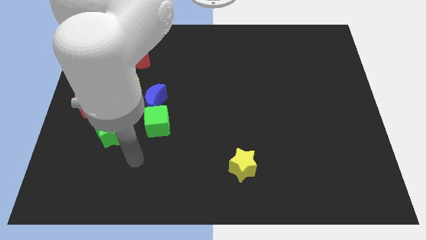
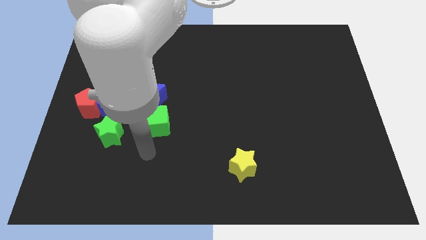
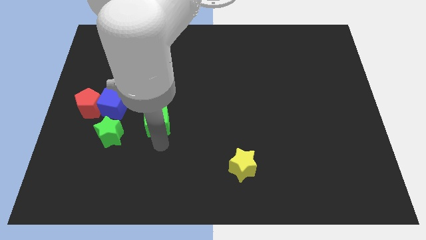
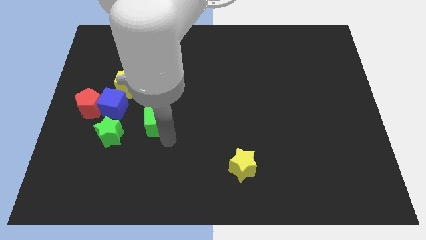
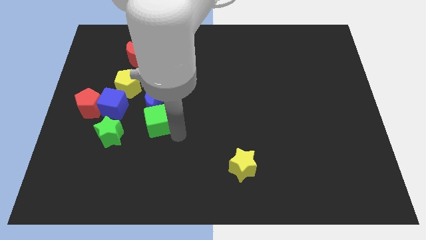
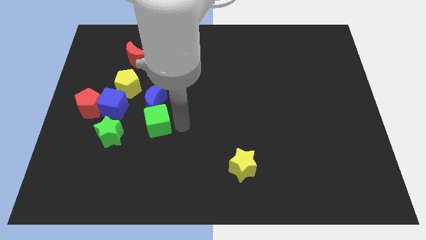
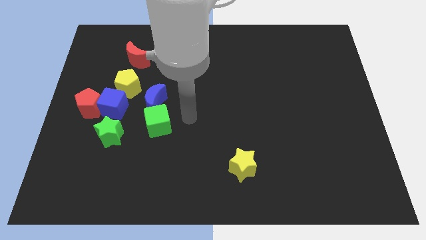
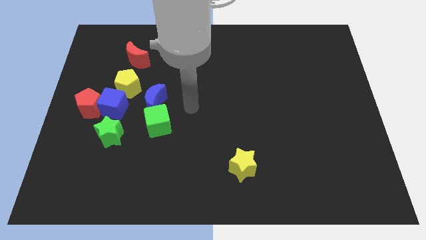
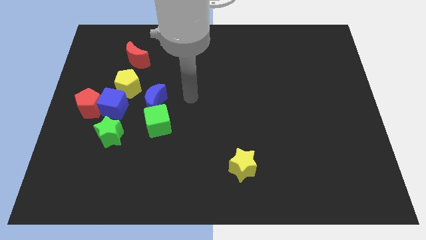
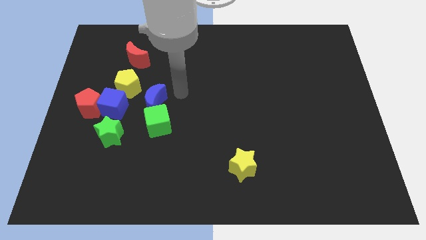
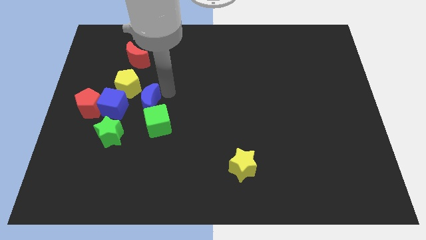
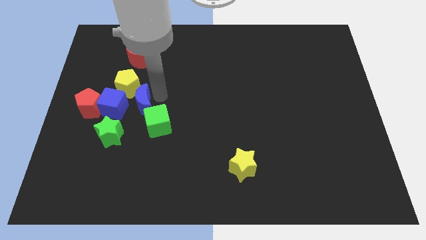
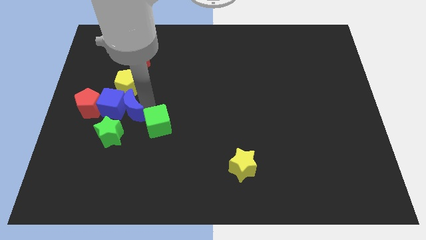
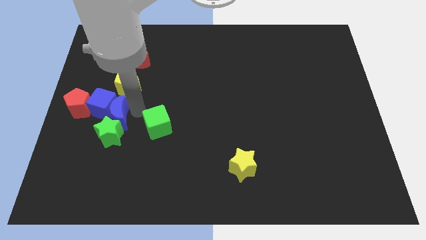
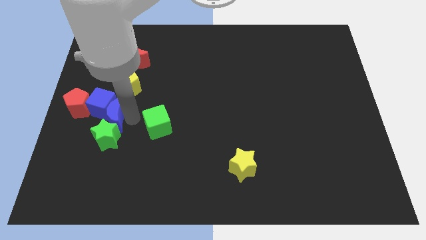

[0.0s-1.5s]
move the green cube away from the blue moon

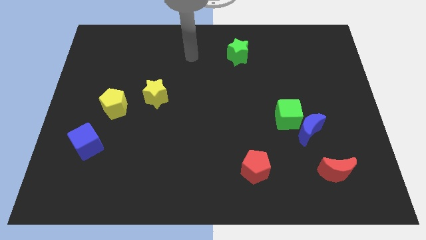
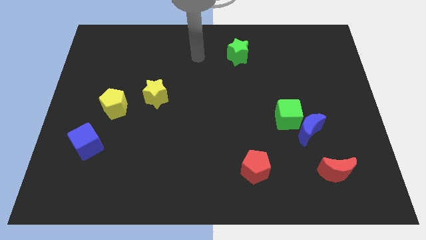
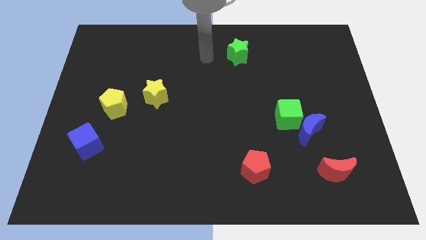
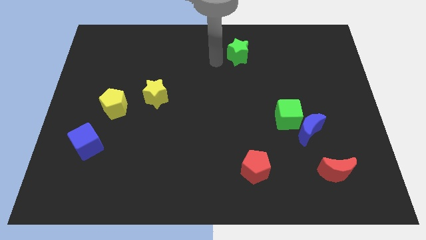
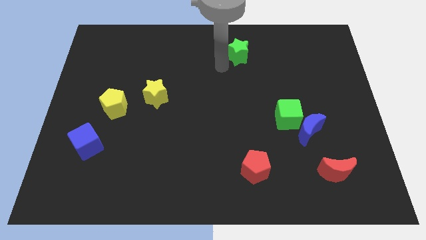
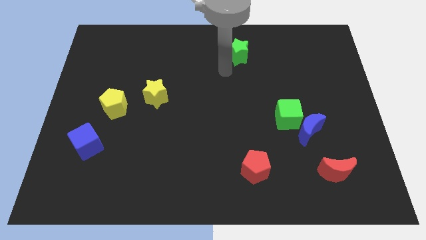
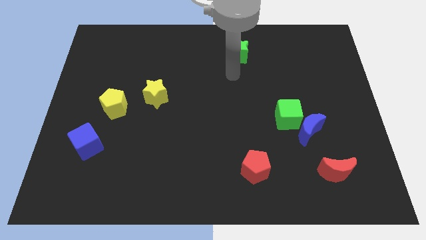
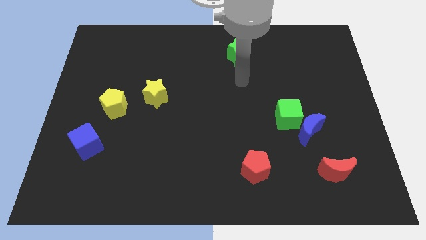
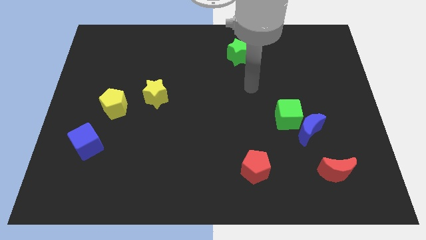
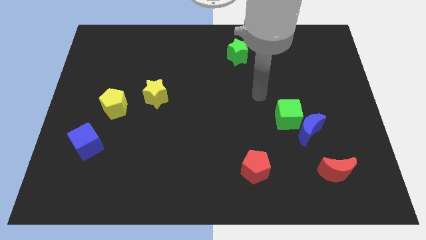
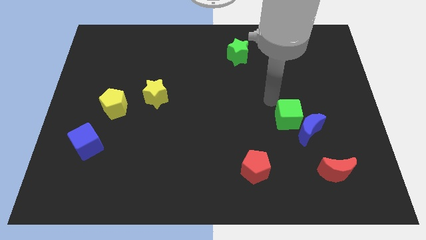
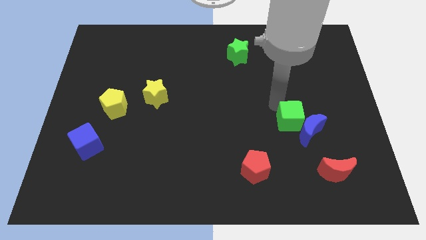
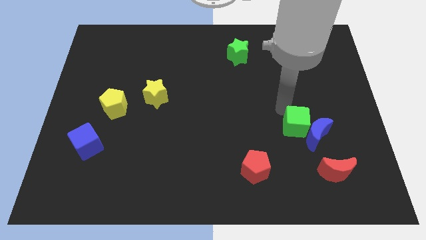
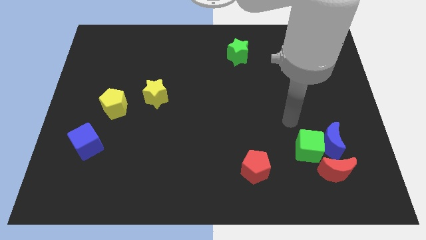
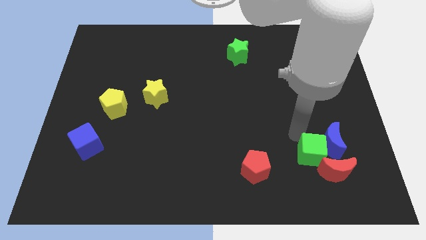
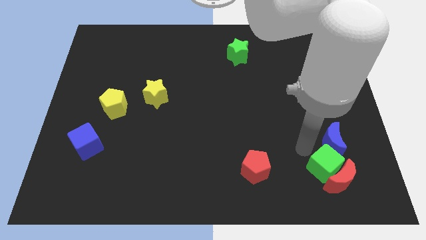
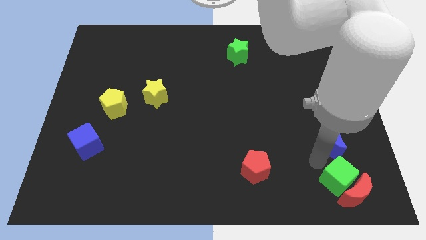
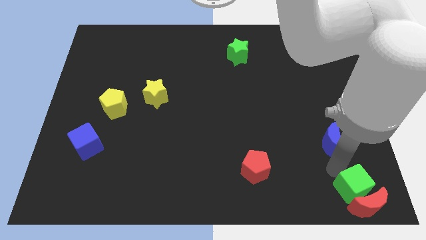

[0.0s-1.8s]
pull the blue moon apart from the green cube

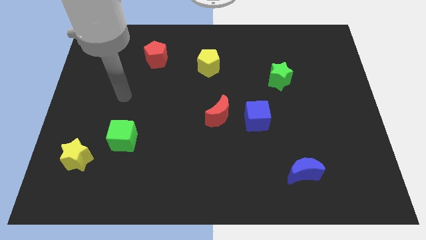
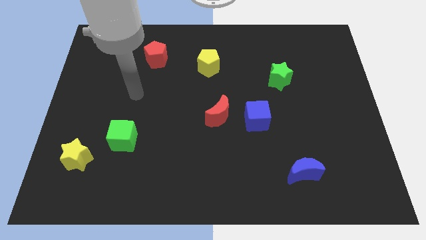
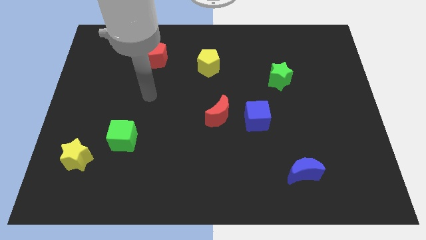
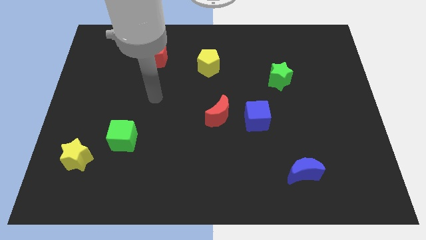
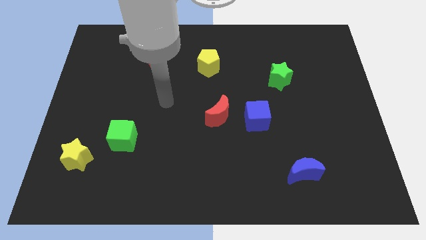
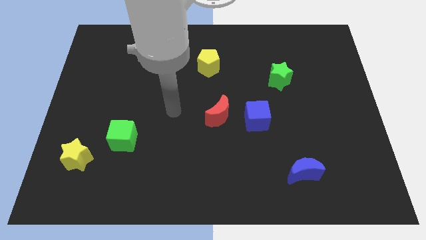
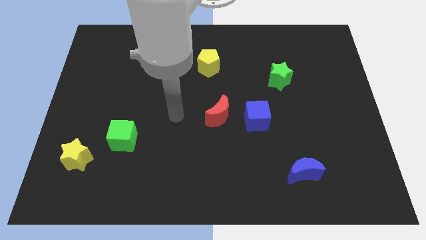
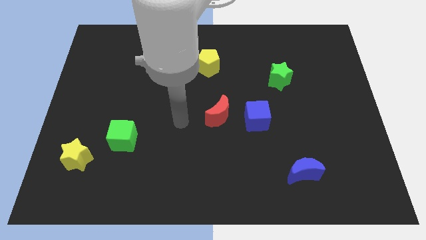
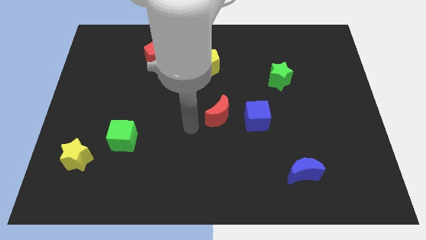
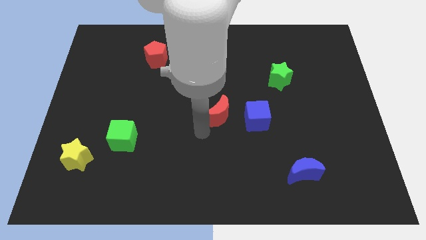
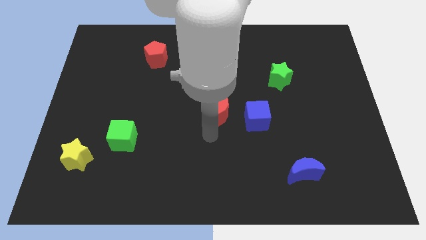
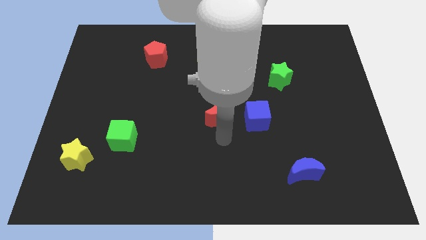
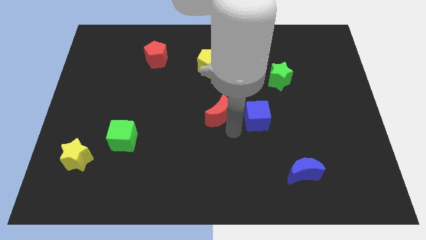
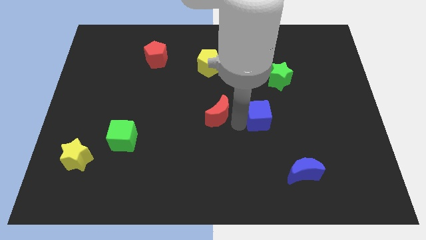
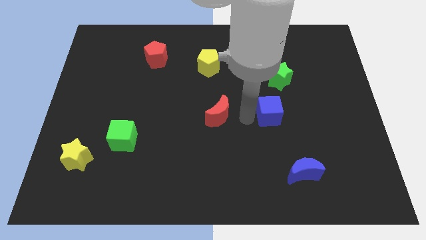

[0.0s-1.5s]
pull the red moon apart from the blue cube

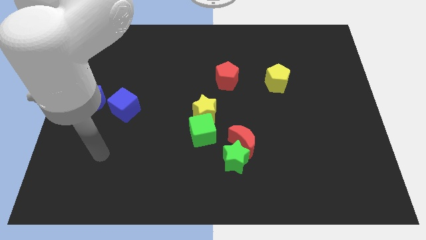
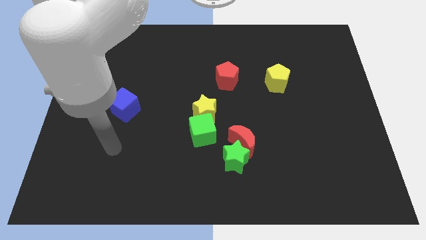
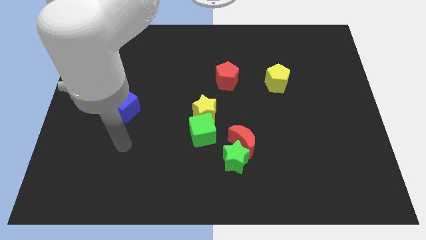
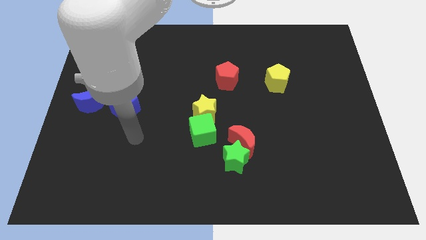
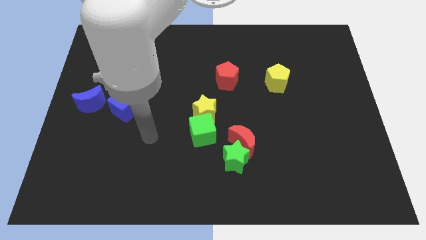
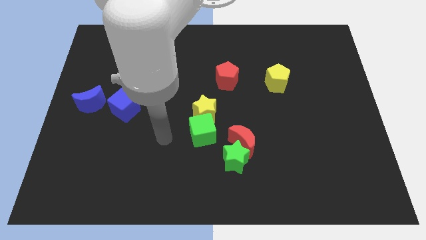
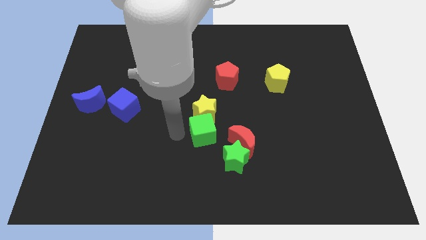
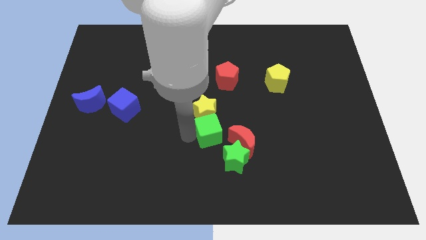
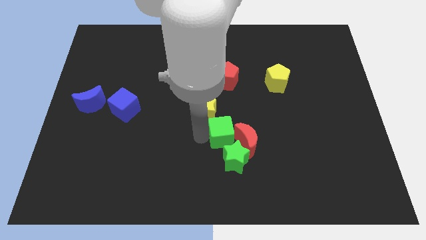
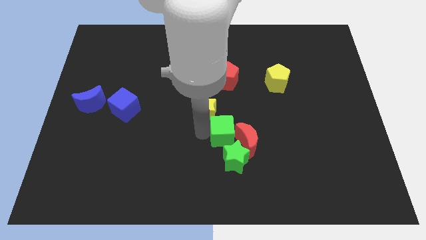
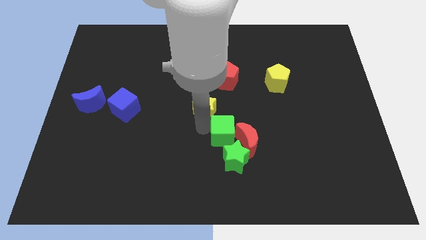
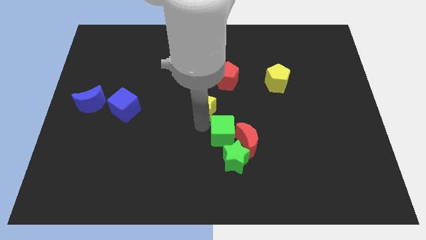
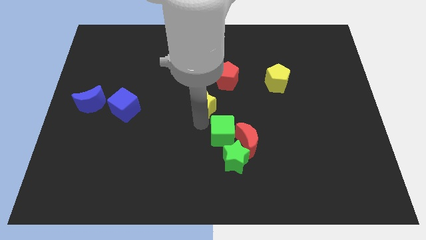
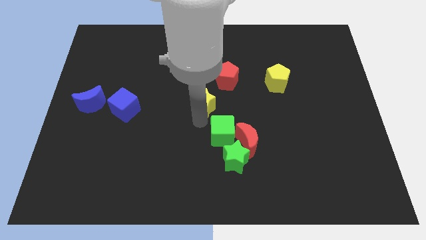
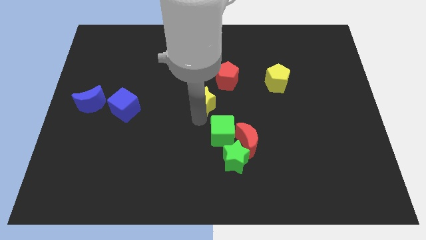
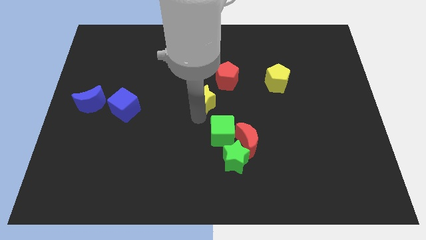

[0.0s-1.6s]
pull the yellow star apart from the green cube

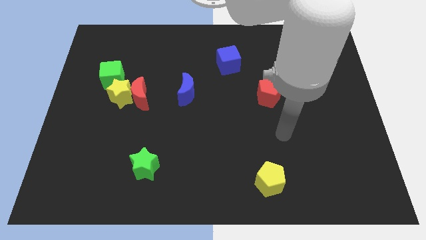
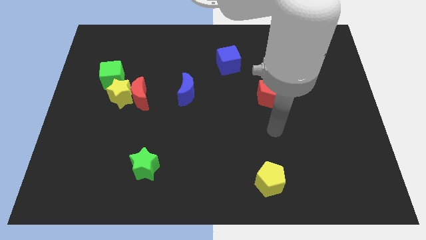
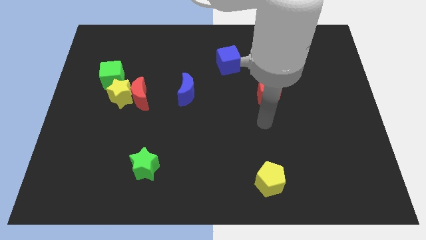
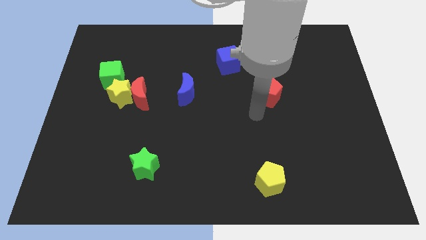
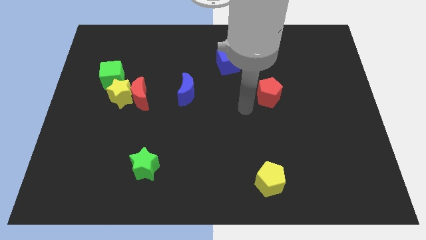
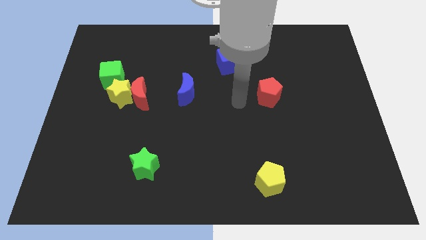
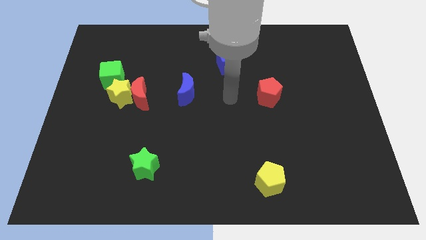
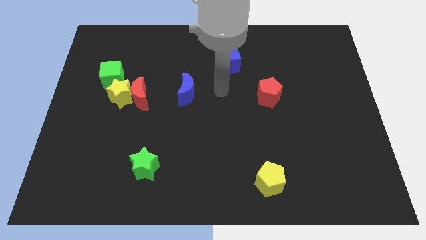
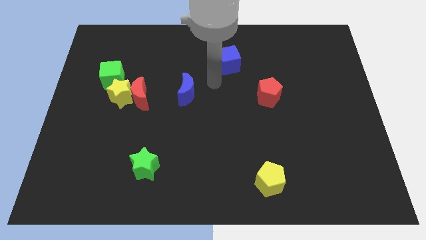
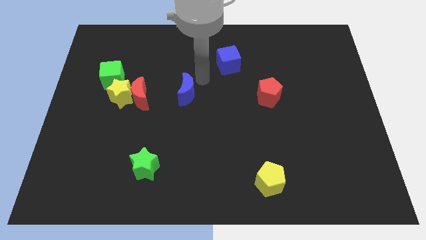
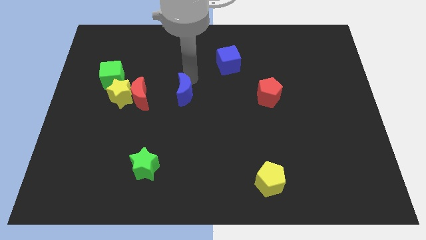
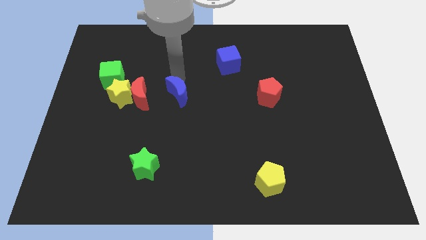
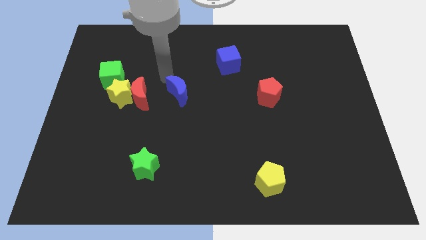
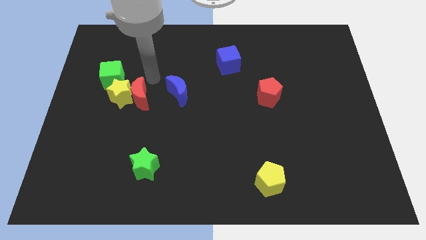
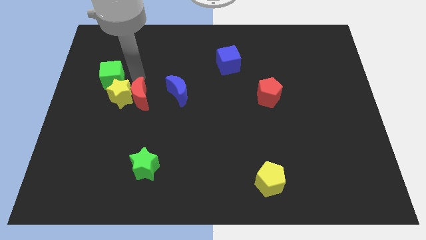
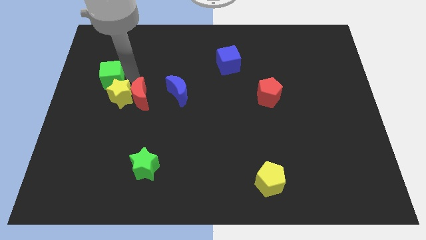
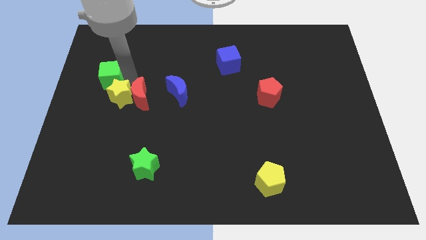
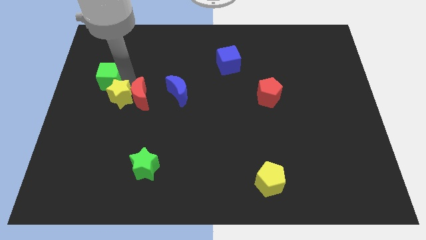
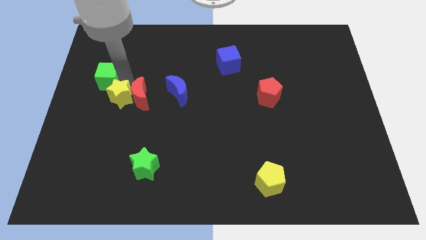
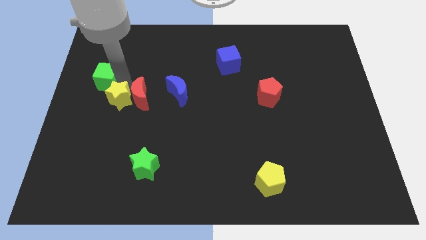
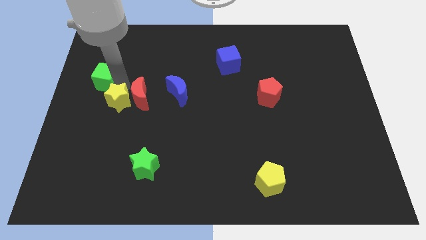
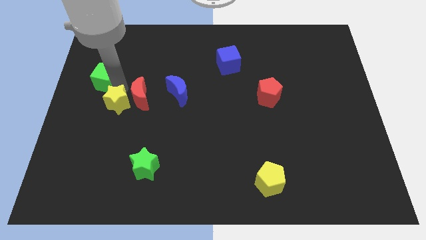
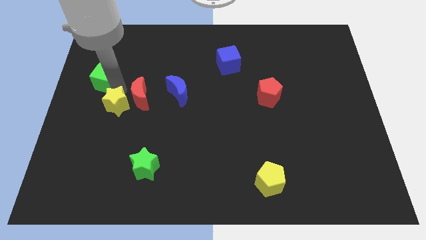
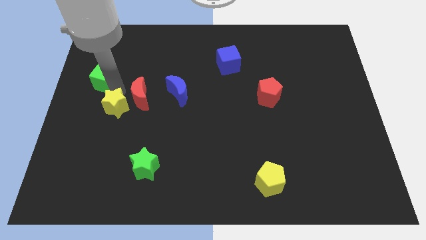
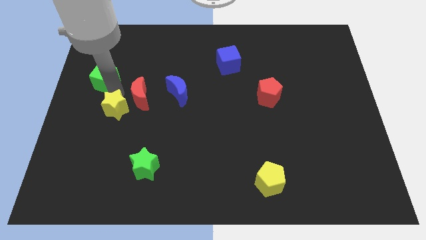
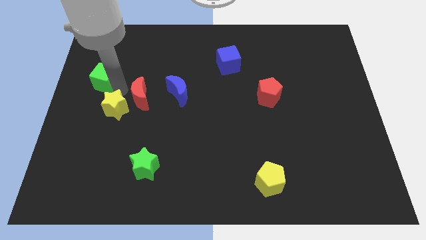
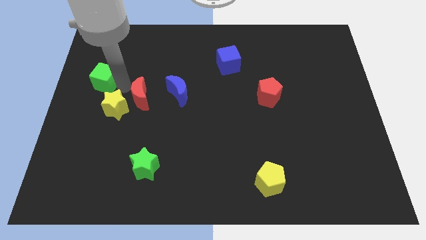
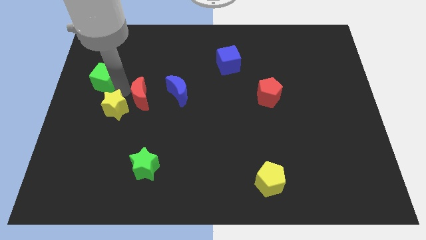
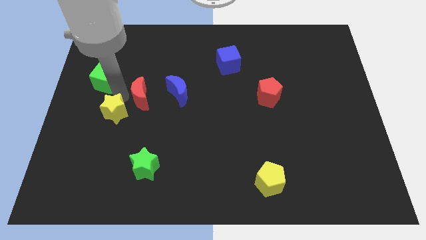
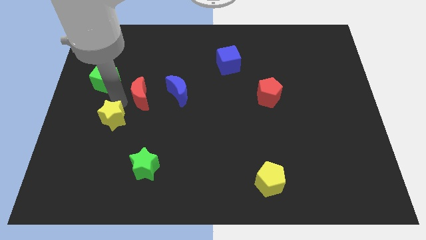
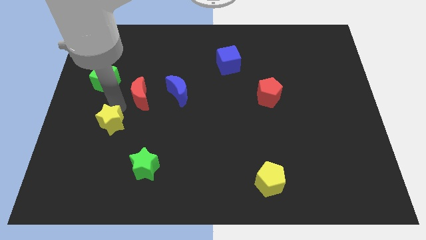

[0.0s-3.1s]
separate the yellow star from the red moon and green cube
